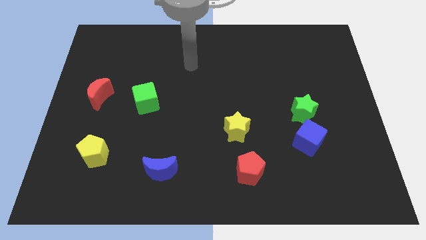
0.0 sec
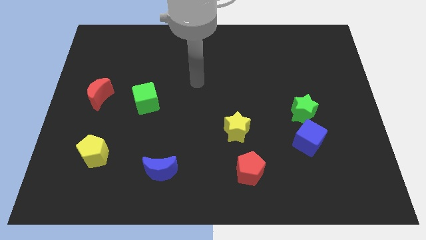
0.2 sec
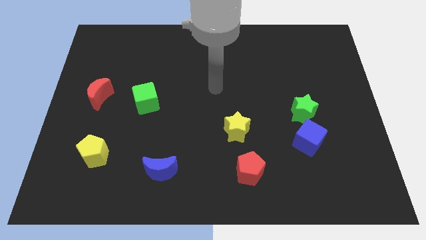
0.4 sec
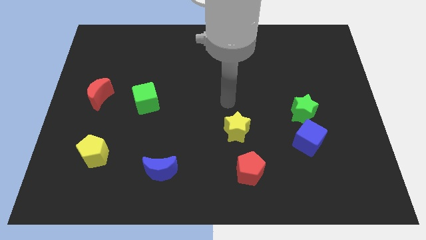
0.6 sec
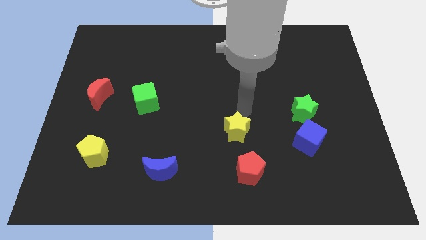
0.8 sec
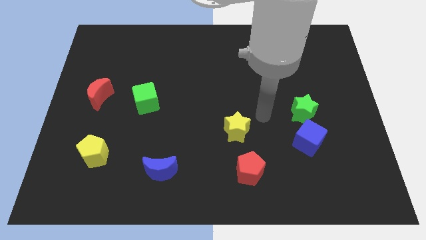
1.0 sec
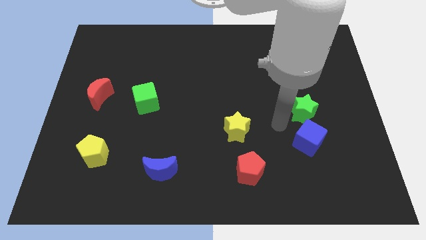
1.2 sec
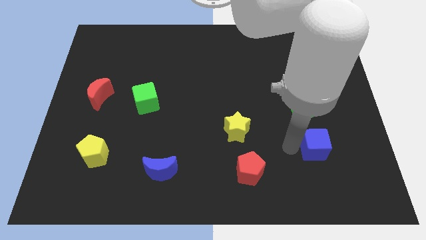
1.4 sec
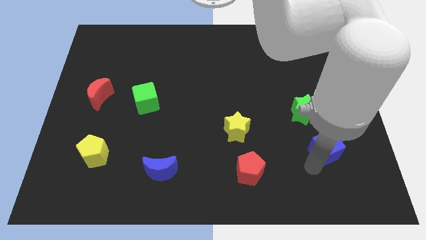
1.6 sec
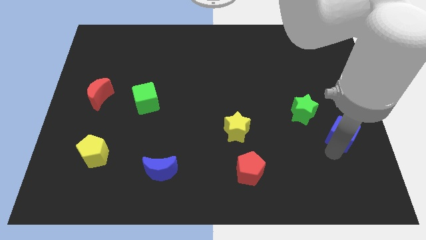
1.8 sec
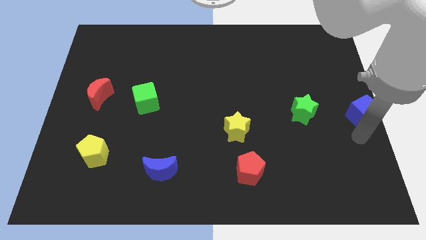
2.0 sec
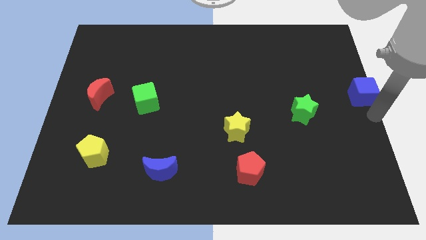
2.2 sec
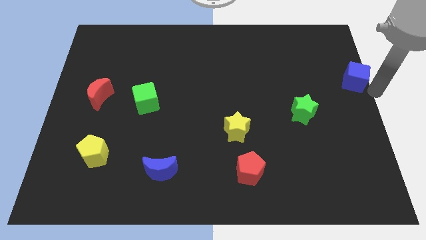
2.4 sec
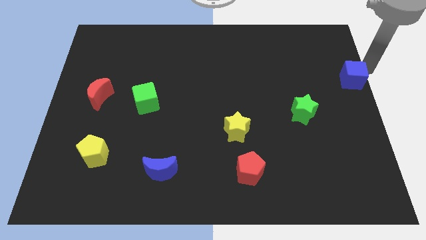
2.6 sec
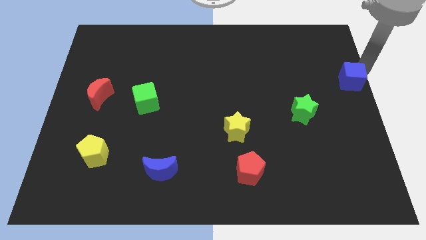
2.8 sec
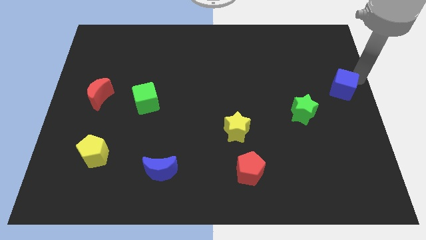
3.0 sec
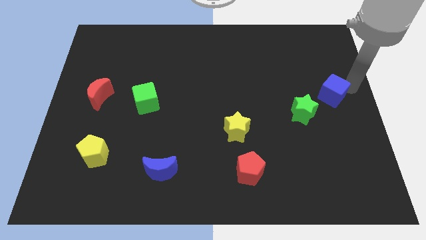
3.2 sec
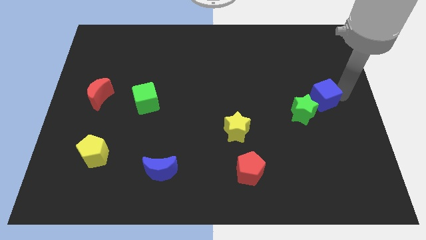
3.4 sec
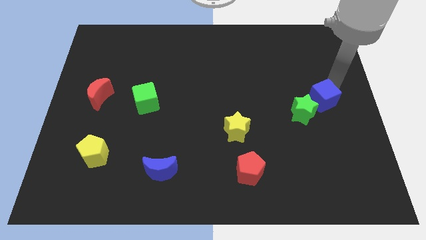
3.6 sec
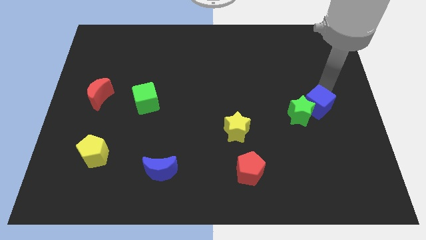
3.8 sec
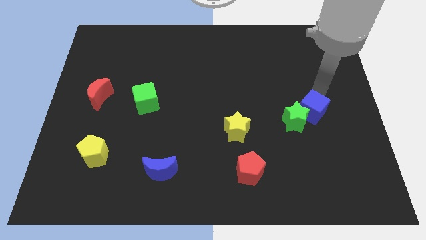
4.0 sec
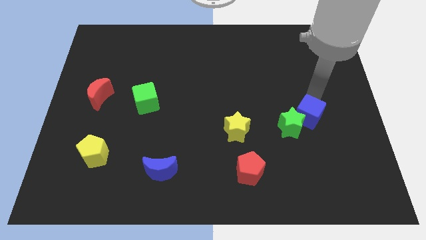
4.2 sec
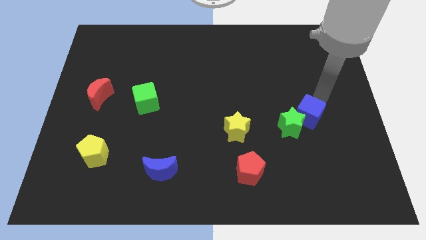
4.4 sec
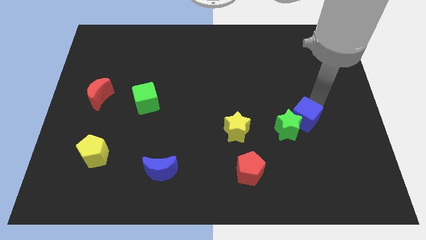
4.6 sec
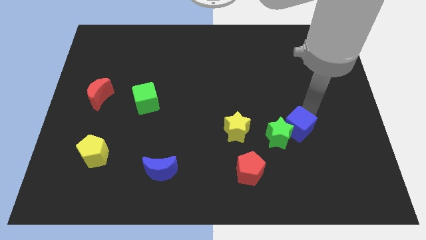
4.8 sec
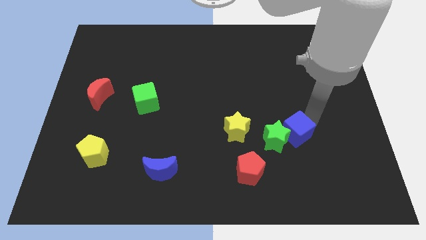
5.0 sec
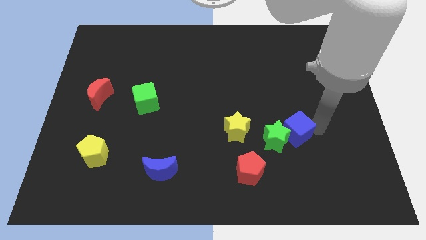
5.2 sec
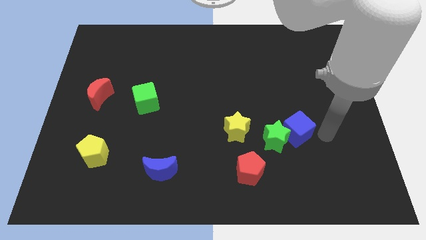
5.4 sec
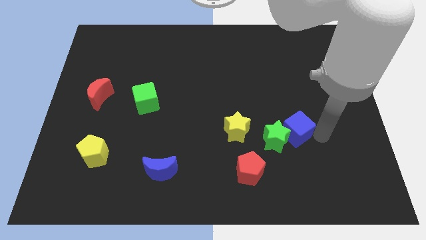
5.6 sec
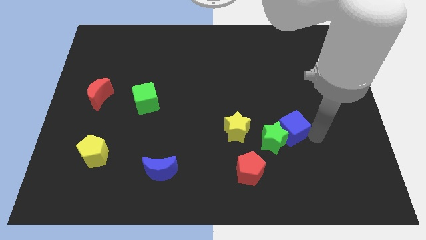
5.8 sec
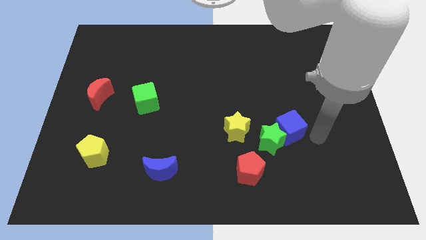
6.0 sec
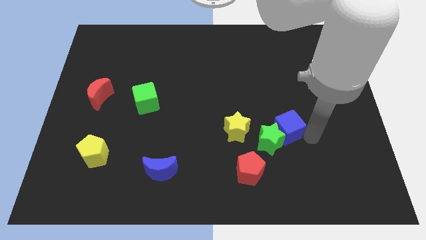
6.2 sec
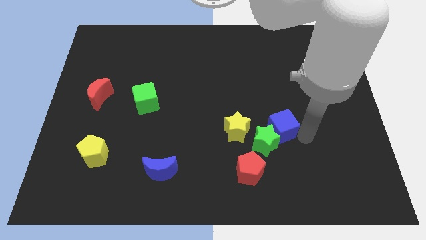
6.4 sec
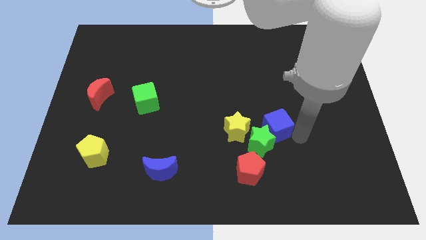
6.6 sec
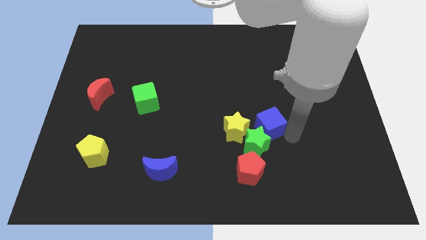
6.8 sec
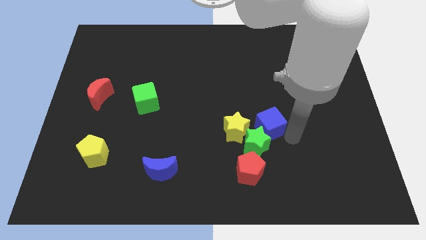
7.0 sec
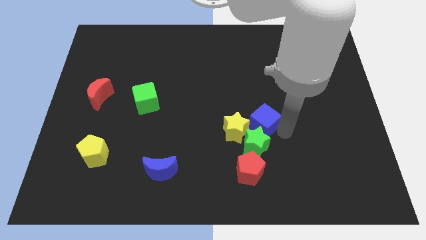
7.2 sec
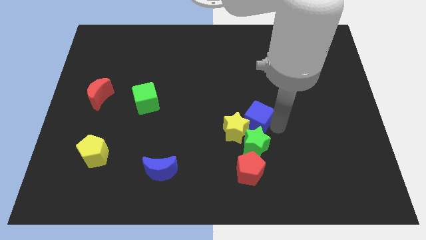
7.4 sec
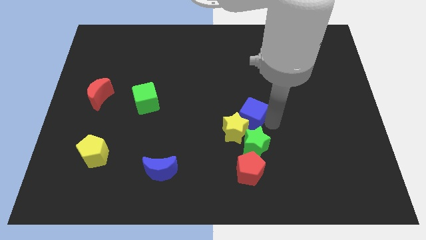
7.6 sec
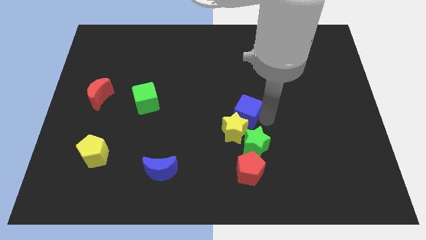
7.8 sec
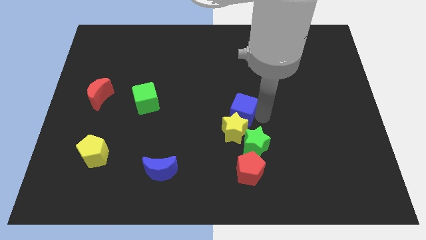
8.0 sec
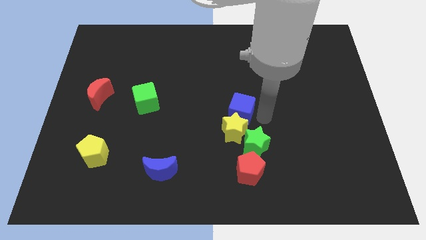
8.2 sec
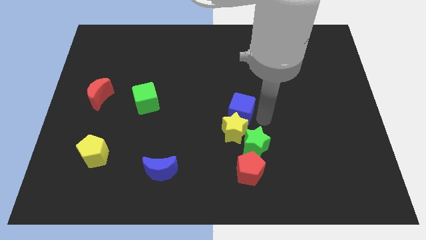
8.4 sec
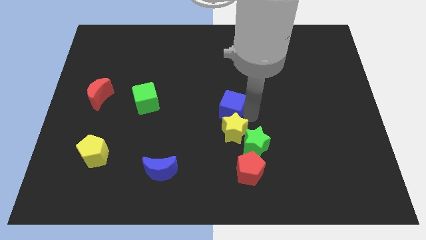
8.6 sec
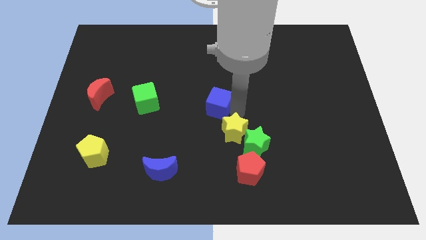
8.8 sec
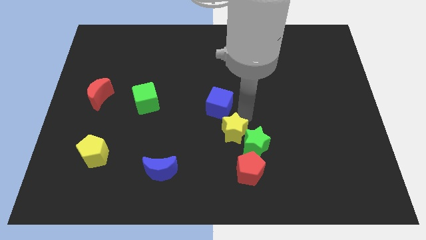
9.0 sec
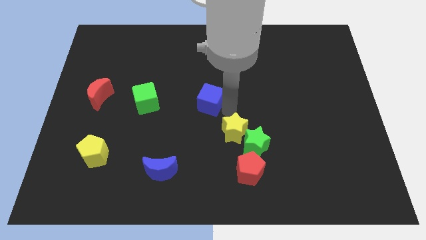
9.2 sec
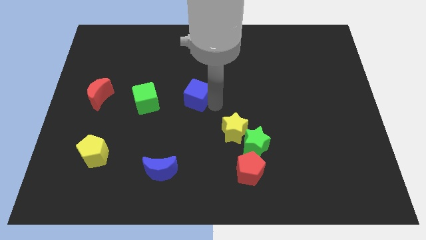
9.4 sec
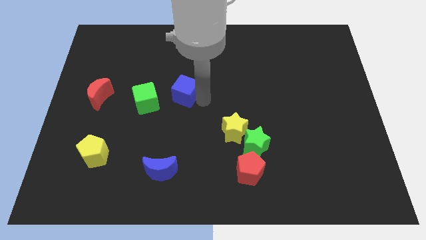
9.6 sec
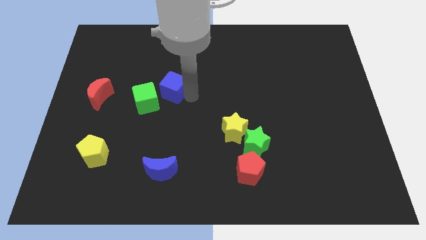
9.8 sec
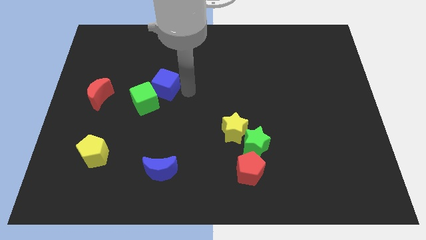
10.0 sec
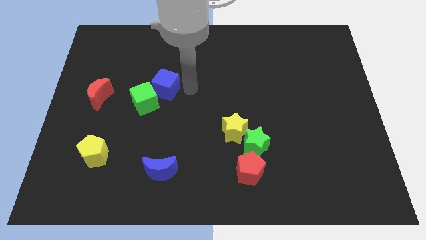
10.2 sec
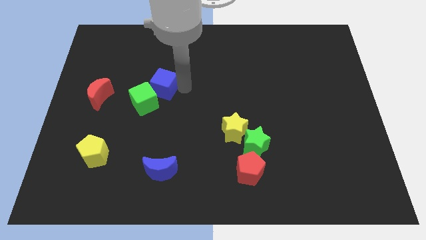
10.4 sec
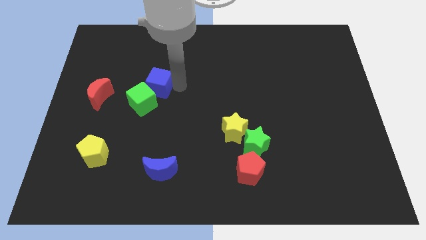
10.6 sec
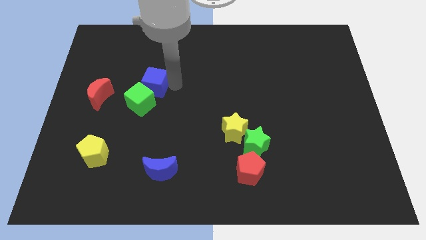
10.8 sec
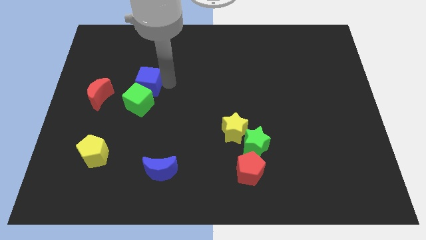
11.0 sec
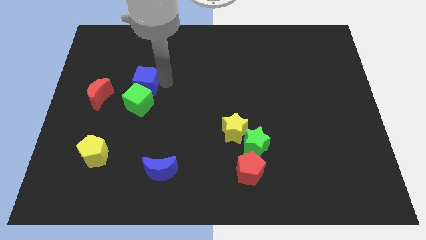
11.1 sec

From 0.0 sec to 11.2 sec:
slide the blue cube to the top left side of the green cube

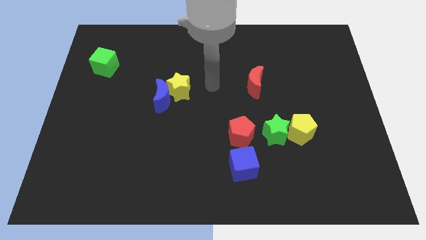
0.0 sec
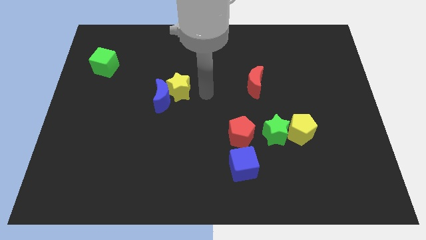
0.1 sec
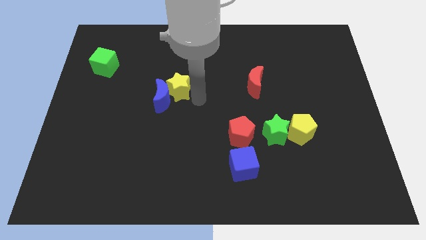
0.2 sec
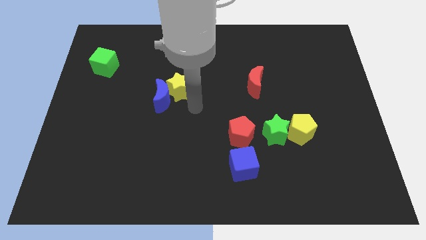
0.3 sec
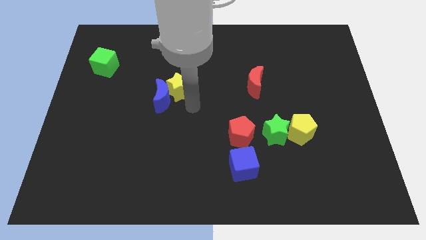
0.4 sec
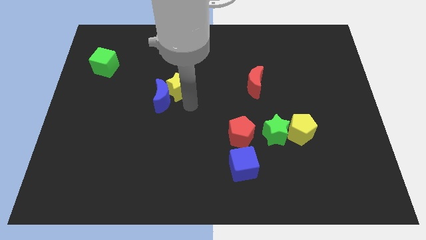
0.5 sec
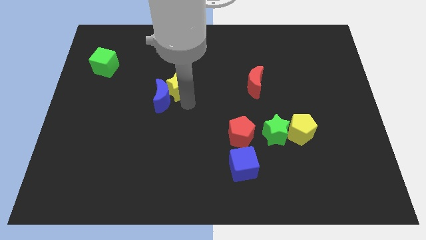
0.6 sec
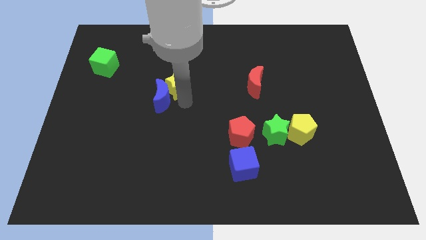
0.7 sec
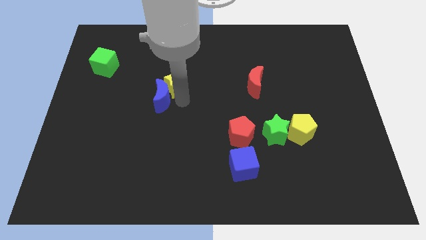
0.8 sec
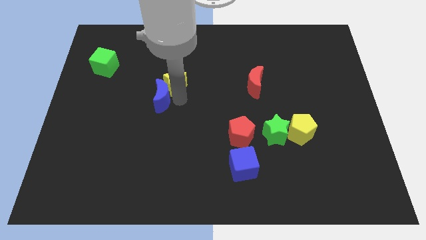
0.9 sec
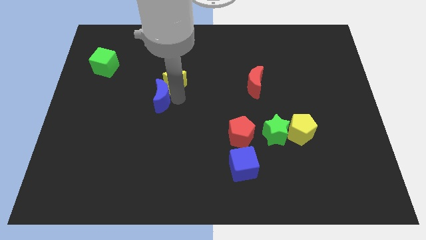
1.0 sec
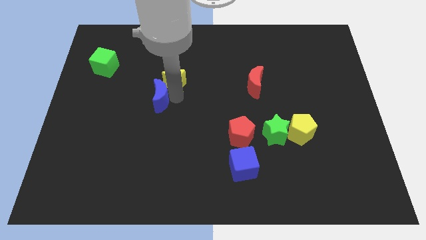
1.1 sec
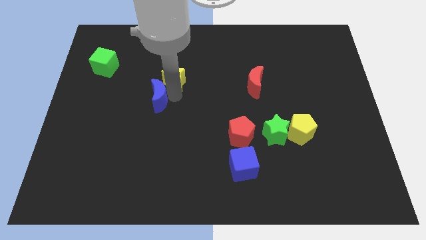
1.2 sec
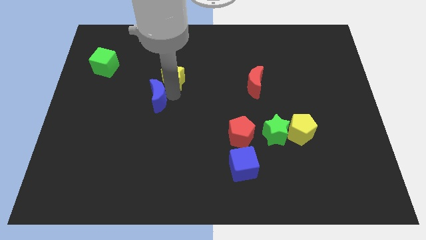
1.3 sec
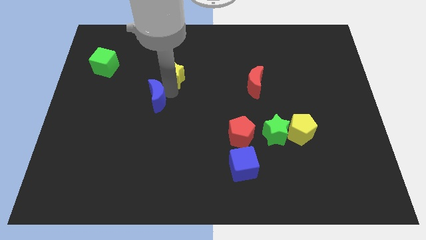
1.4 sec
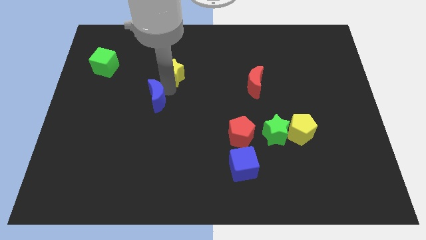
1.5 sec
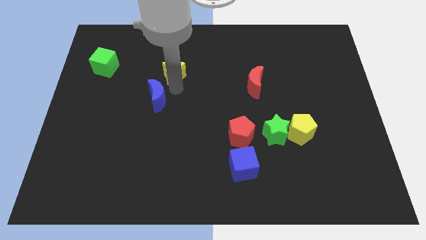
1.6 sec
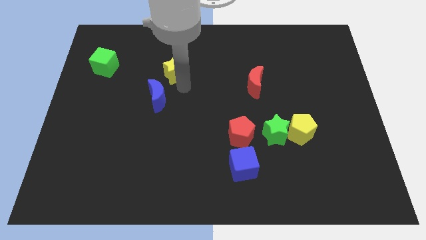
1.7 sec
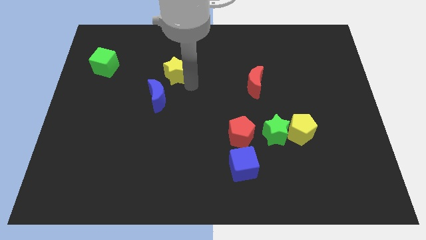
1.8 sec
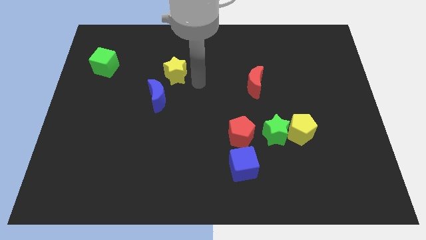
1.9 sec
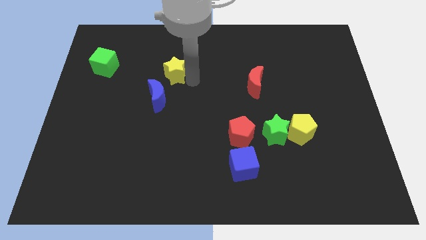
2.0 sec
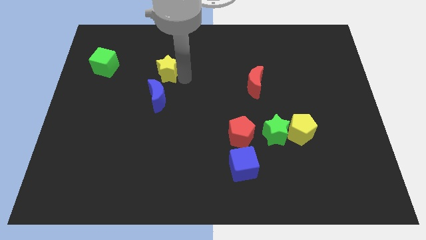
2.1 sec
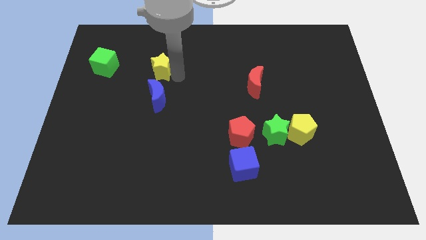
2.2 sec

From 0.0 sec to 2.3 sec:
put the yellow star right of the green cube
